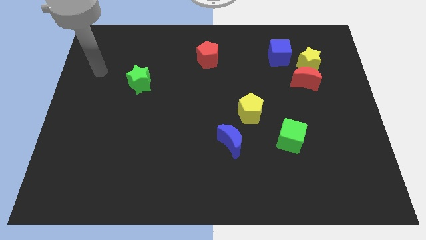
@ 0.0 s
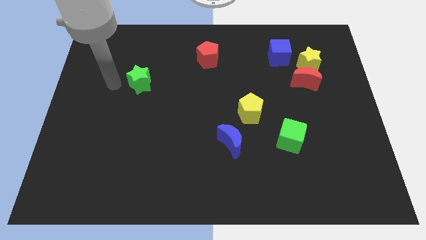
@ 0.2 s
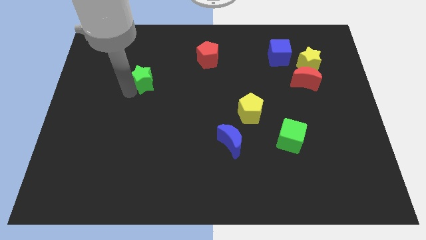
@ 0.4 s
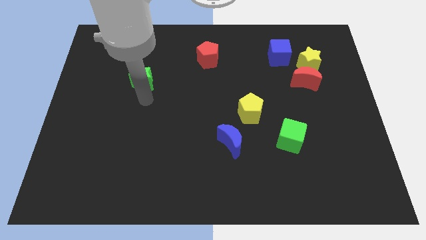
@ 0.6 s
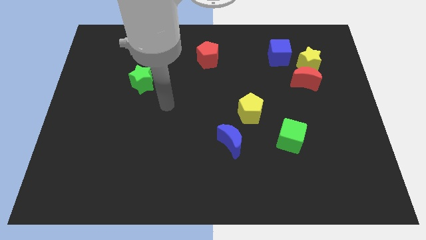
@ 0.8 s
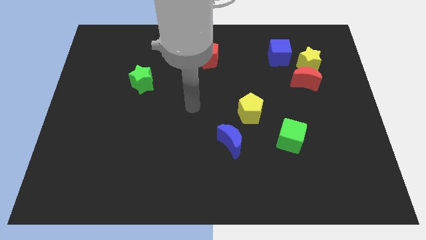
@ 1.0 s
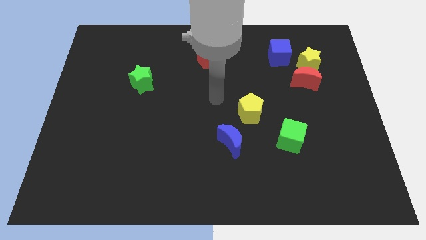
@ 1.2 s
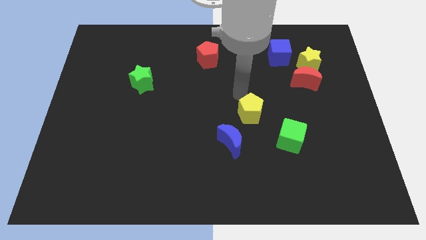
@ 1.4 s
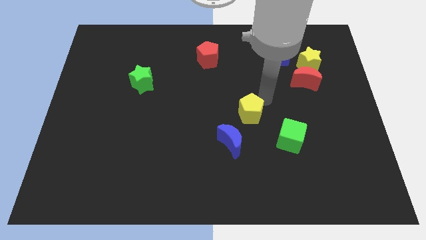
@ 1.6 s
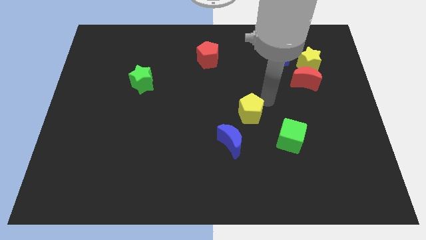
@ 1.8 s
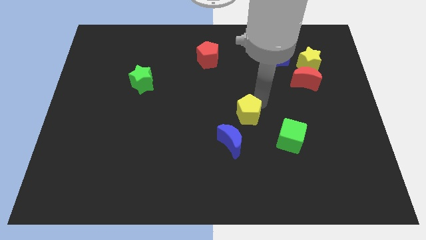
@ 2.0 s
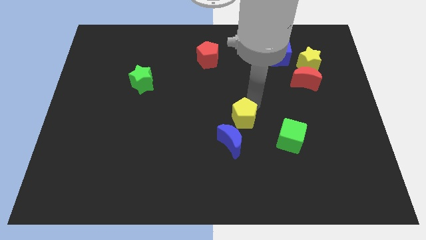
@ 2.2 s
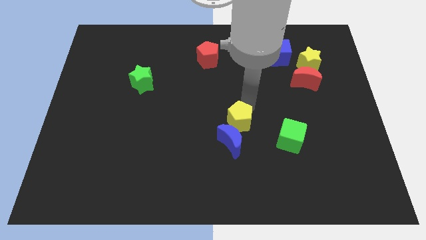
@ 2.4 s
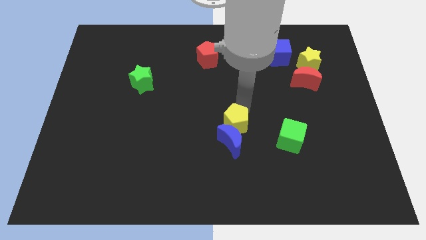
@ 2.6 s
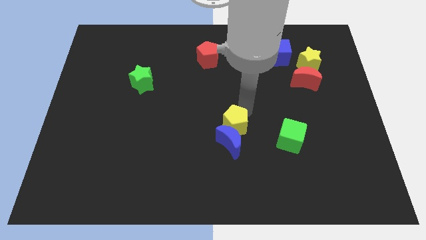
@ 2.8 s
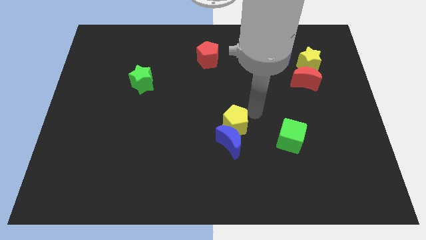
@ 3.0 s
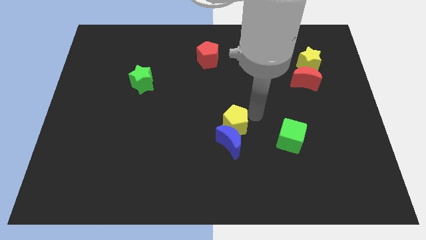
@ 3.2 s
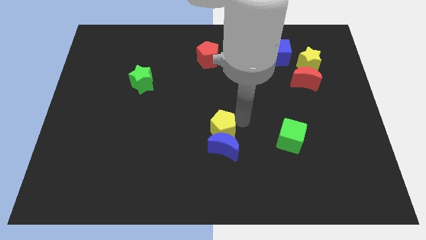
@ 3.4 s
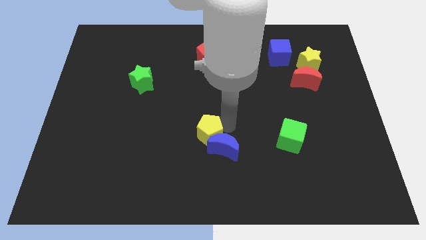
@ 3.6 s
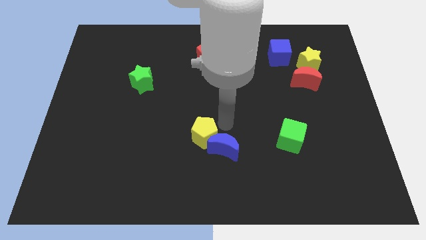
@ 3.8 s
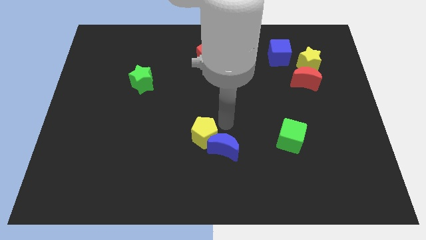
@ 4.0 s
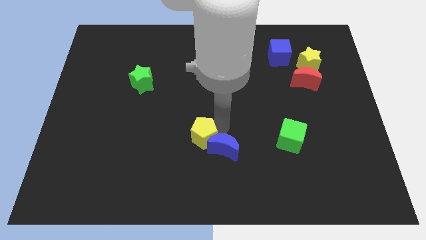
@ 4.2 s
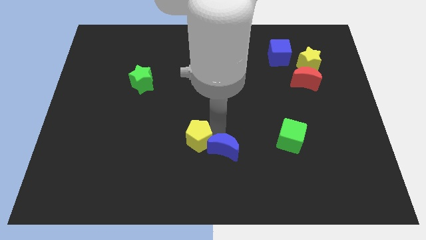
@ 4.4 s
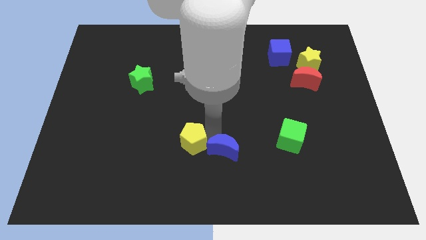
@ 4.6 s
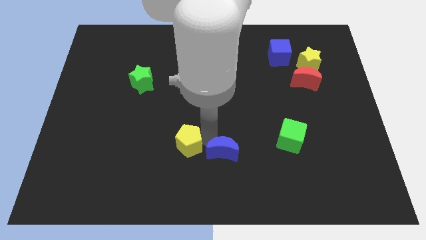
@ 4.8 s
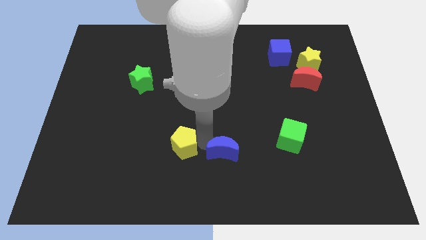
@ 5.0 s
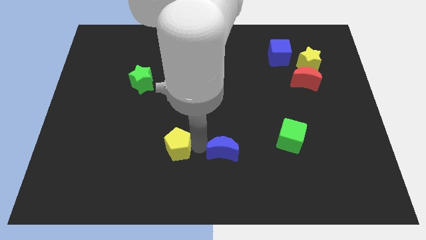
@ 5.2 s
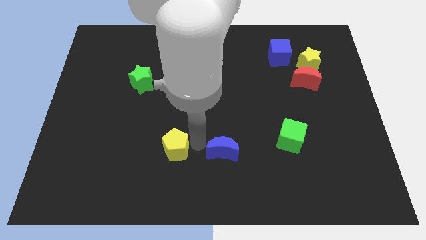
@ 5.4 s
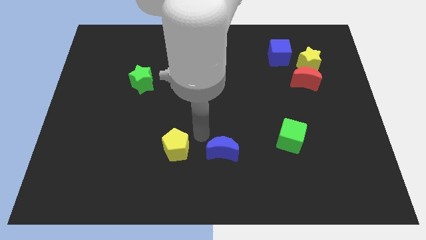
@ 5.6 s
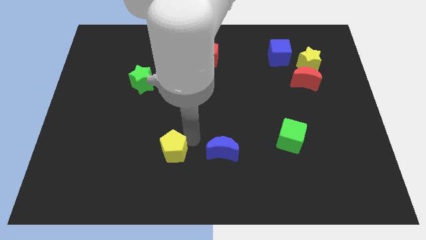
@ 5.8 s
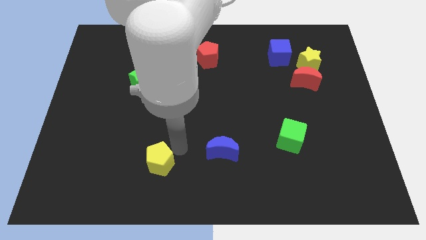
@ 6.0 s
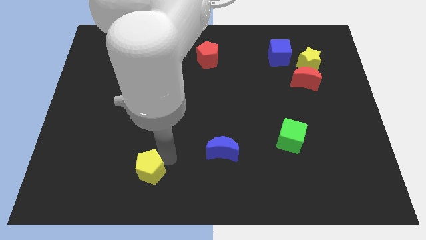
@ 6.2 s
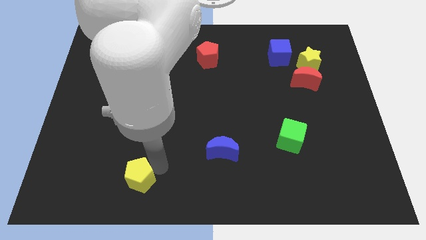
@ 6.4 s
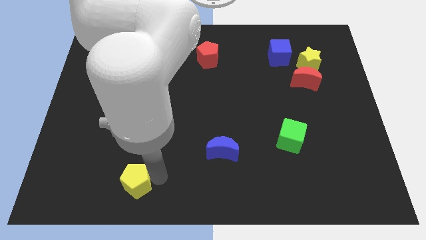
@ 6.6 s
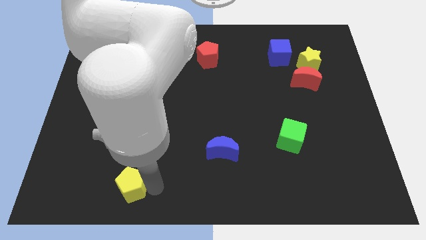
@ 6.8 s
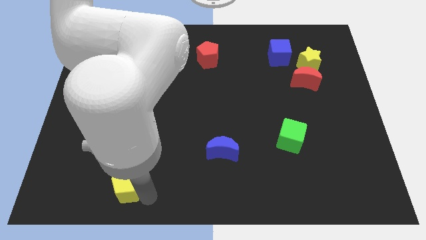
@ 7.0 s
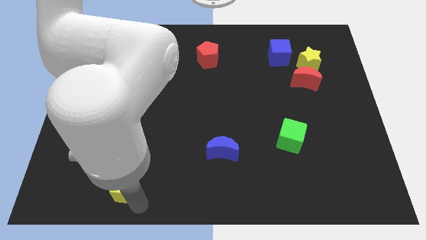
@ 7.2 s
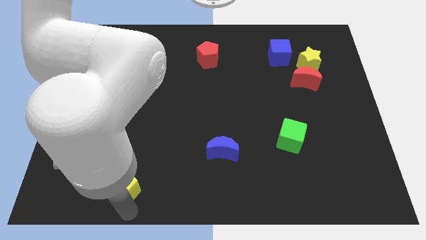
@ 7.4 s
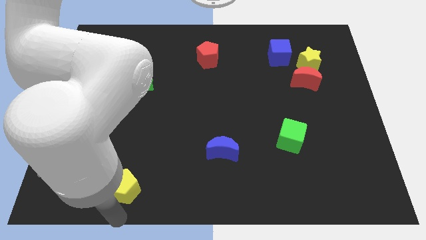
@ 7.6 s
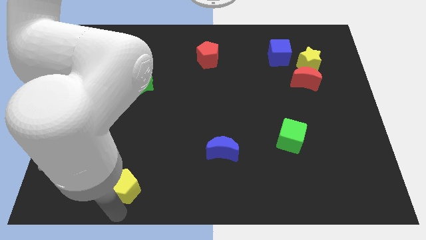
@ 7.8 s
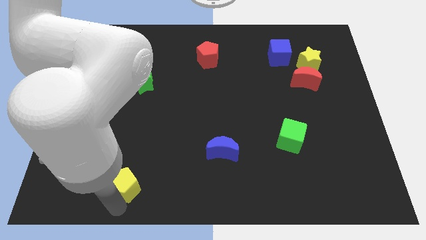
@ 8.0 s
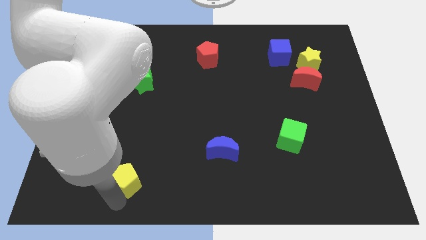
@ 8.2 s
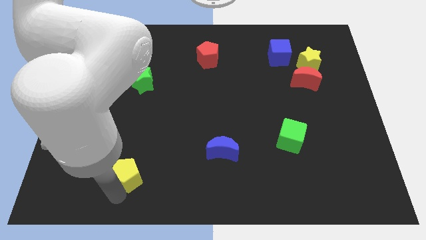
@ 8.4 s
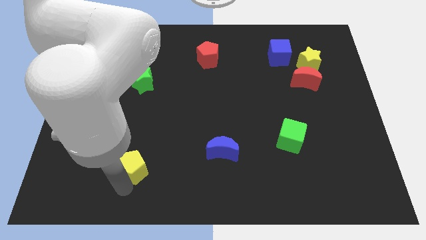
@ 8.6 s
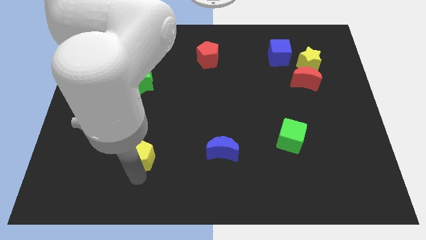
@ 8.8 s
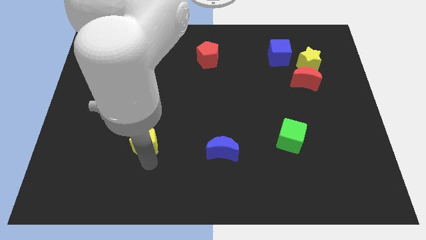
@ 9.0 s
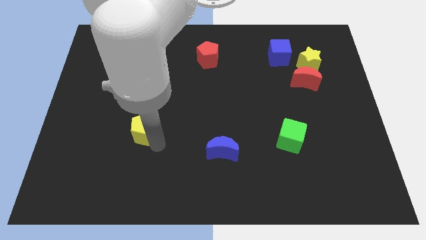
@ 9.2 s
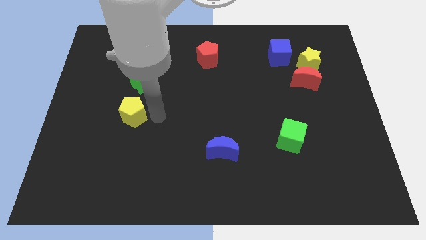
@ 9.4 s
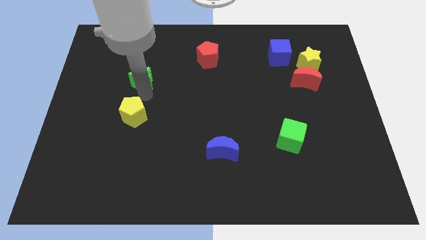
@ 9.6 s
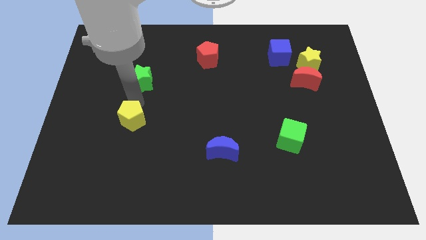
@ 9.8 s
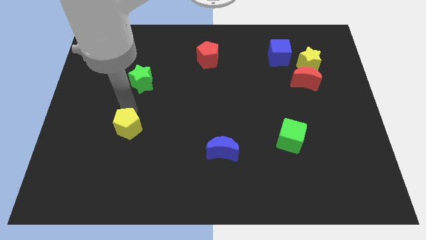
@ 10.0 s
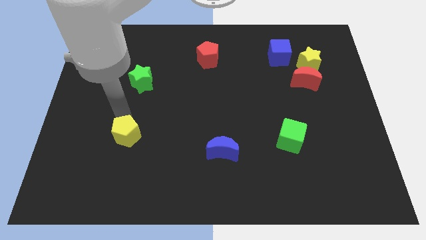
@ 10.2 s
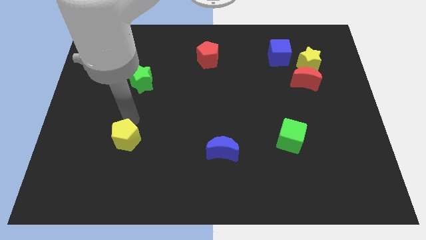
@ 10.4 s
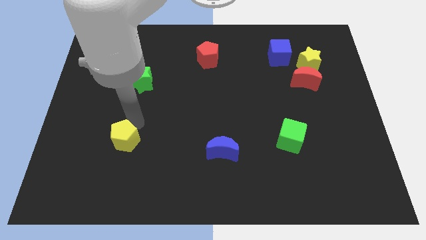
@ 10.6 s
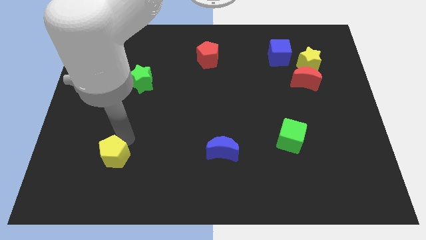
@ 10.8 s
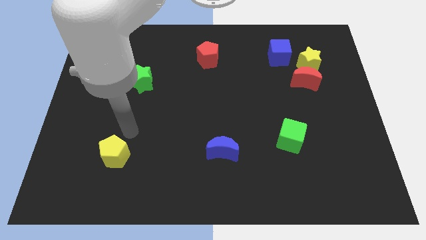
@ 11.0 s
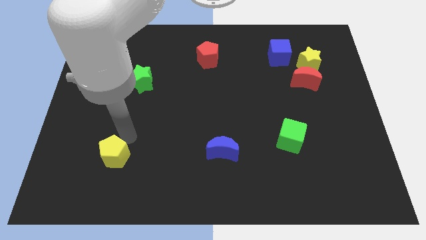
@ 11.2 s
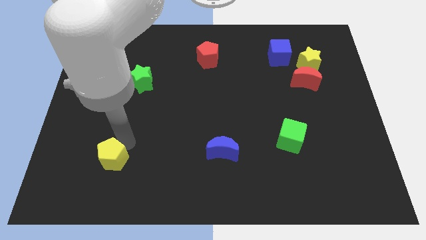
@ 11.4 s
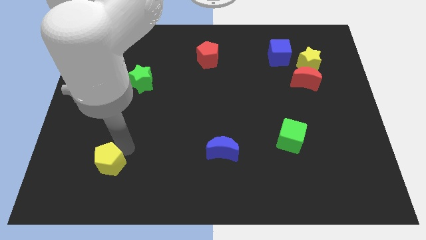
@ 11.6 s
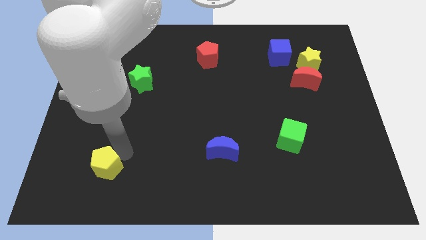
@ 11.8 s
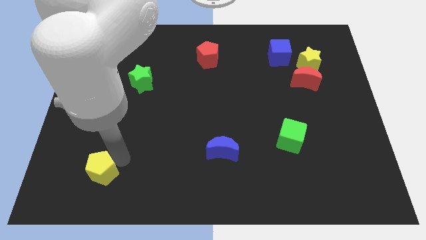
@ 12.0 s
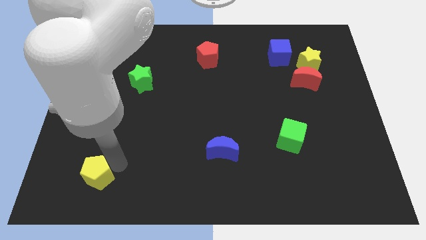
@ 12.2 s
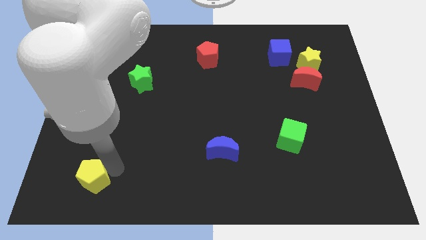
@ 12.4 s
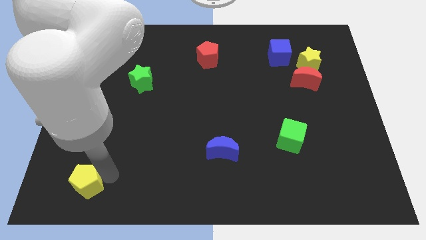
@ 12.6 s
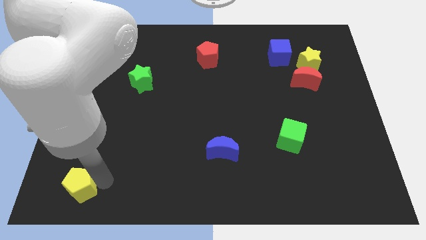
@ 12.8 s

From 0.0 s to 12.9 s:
put the yellow pentagon to the bottom left
